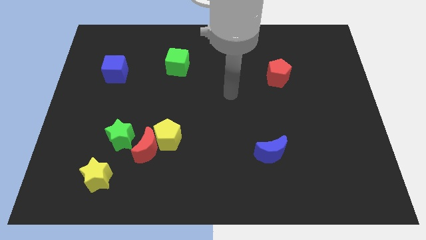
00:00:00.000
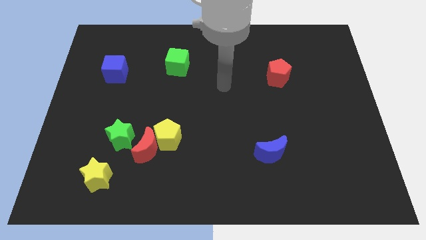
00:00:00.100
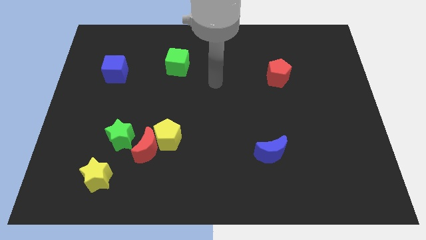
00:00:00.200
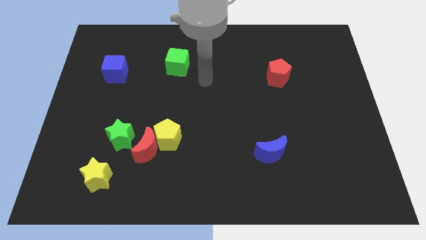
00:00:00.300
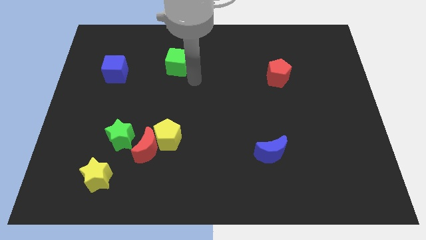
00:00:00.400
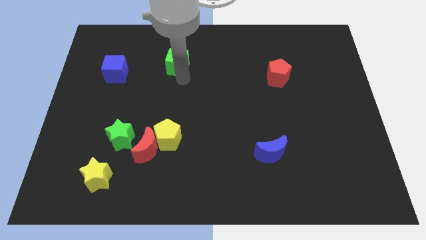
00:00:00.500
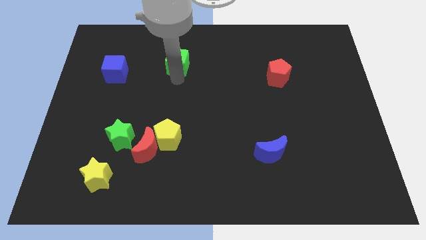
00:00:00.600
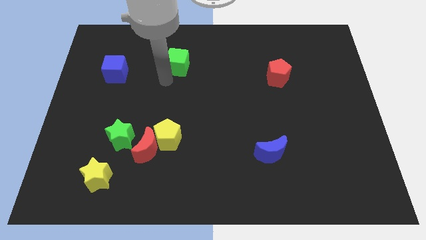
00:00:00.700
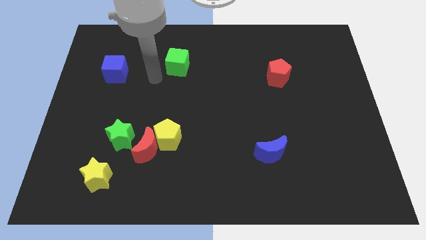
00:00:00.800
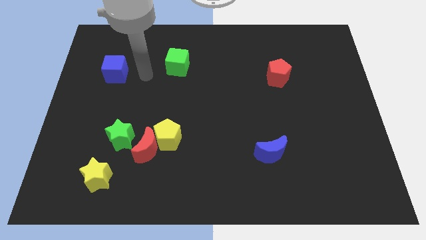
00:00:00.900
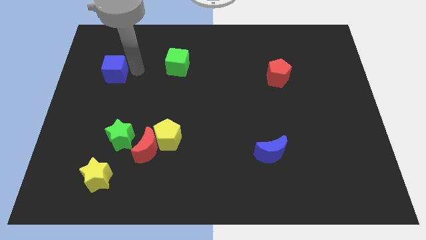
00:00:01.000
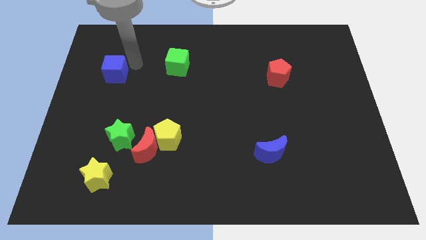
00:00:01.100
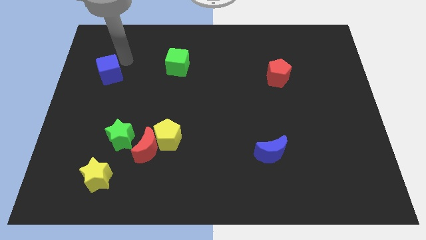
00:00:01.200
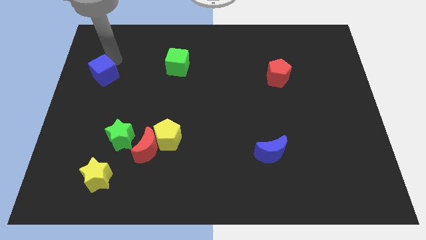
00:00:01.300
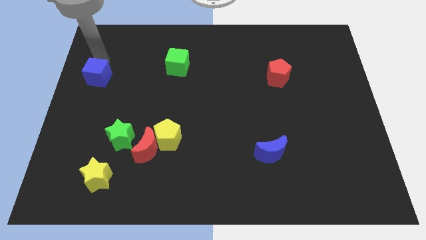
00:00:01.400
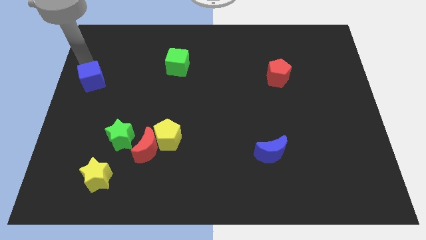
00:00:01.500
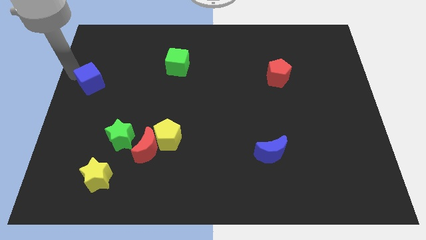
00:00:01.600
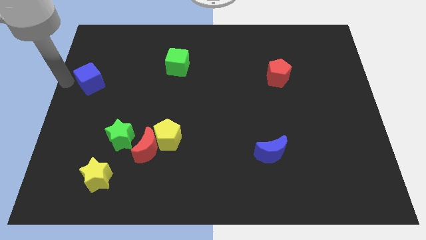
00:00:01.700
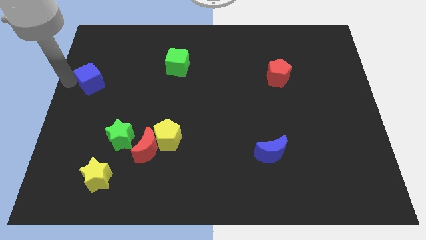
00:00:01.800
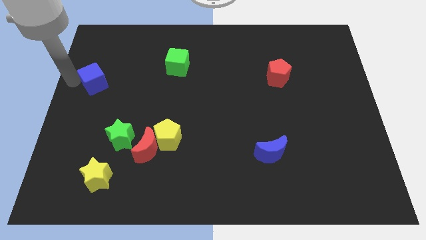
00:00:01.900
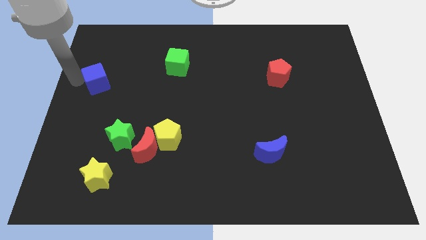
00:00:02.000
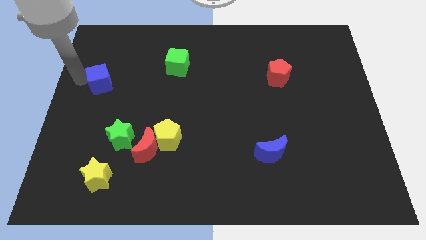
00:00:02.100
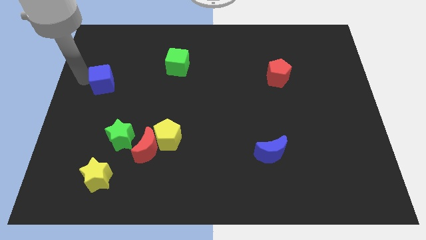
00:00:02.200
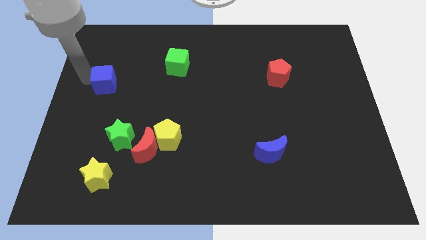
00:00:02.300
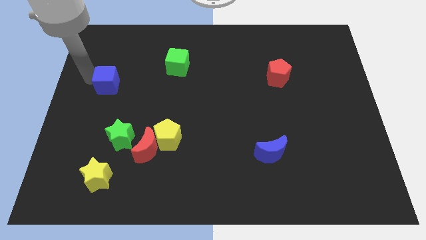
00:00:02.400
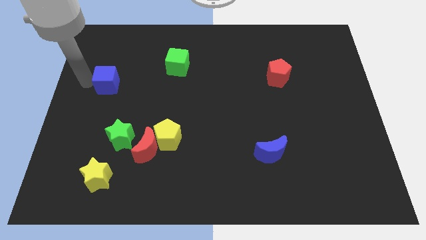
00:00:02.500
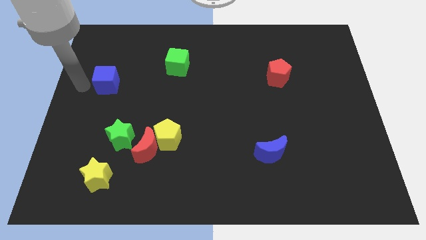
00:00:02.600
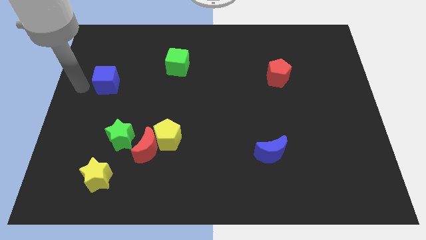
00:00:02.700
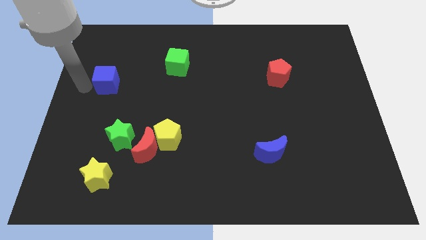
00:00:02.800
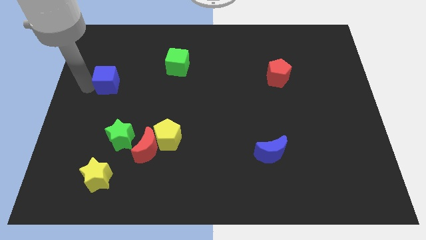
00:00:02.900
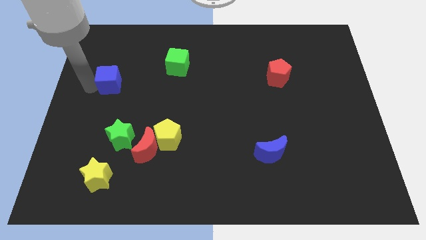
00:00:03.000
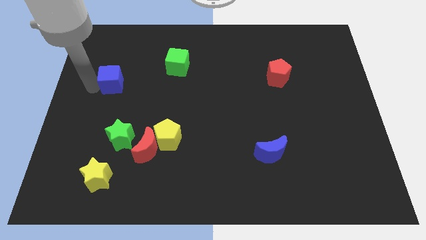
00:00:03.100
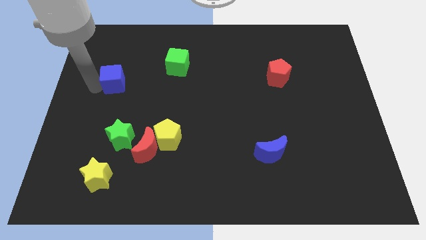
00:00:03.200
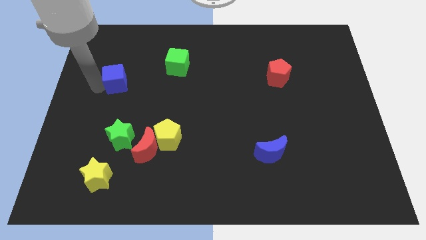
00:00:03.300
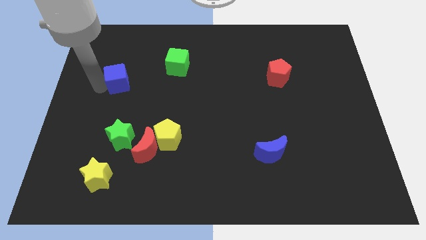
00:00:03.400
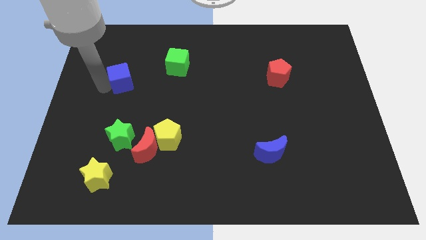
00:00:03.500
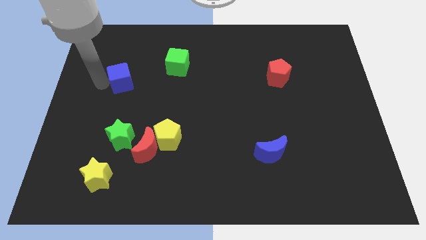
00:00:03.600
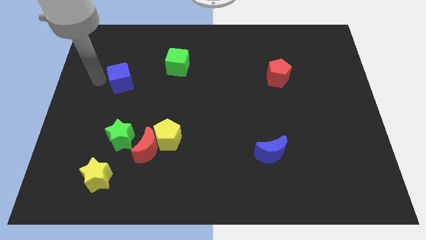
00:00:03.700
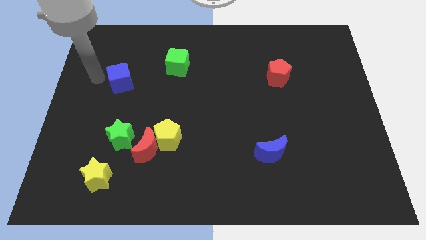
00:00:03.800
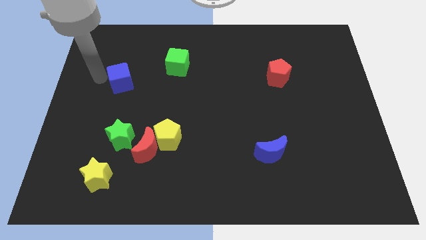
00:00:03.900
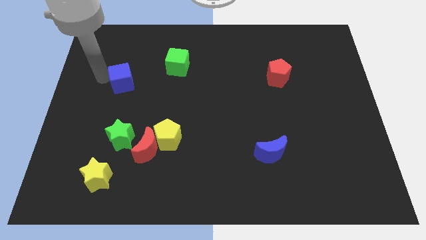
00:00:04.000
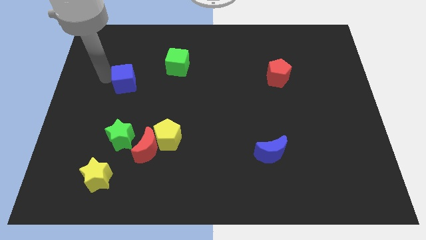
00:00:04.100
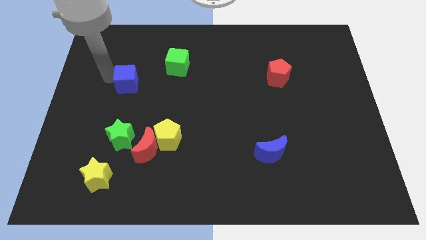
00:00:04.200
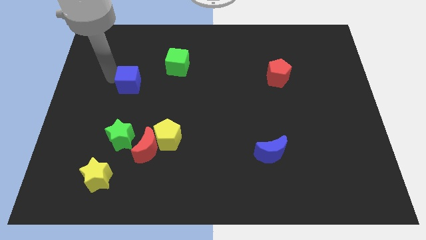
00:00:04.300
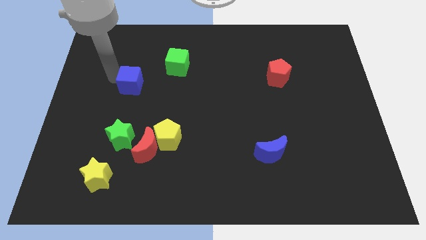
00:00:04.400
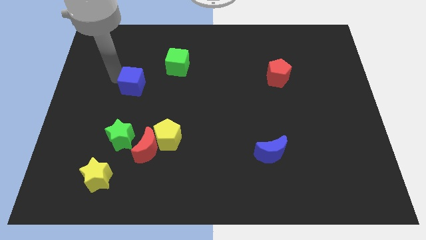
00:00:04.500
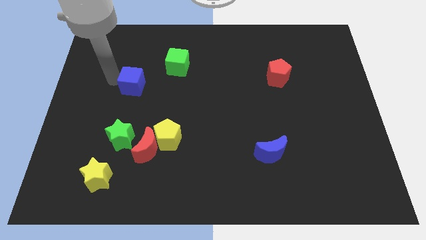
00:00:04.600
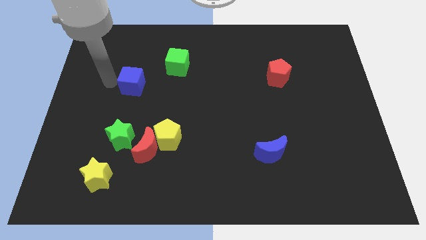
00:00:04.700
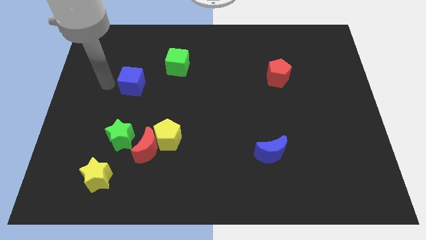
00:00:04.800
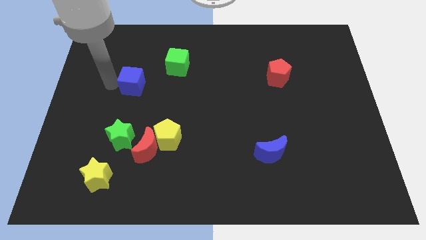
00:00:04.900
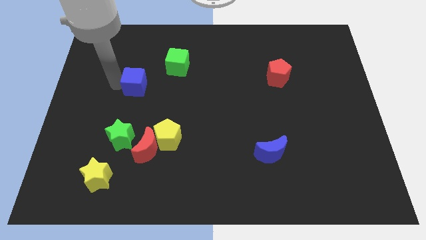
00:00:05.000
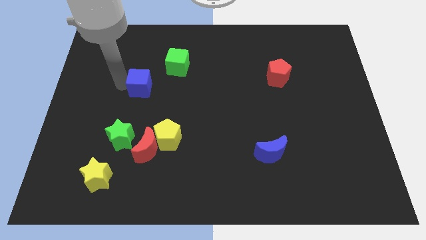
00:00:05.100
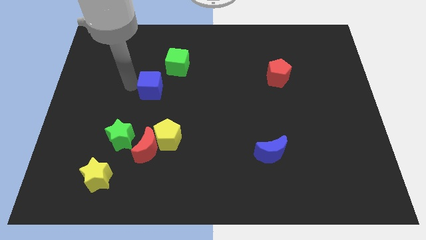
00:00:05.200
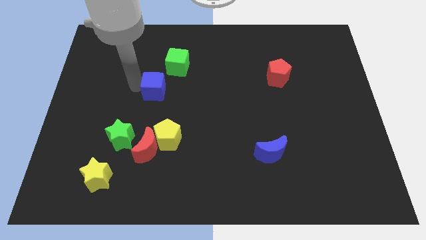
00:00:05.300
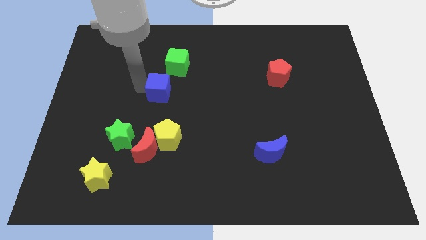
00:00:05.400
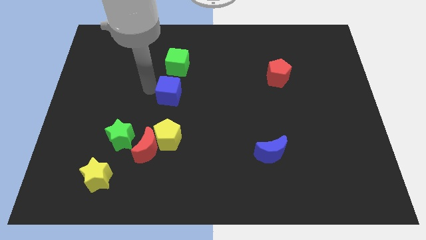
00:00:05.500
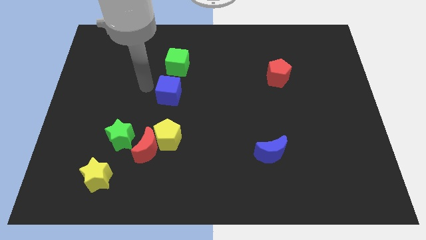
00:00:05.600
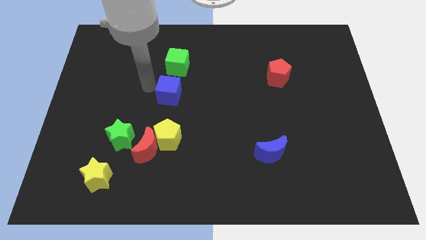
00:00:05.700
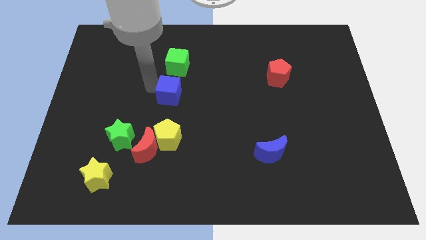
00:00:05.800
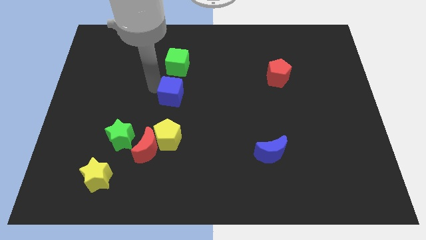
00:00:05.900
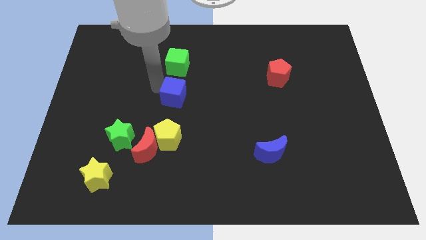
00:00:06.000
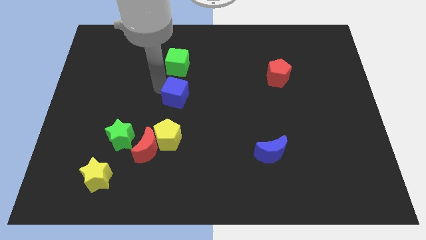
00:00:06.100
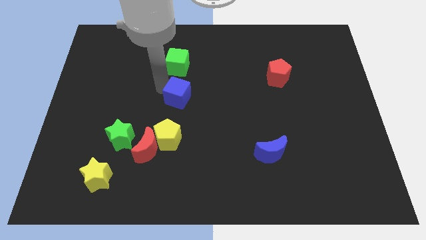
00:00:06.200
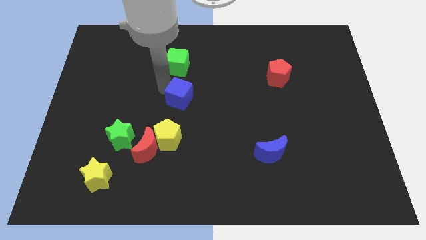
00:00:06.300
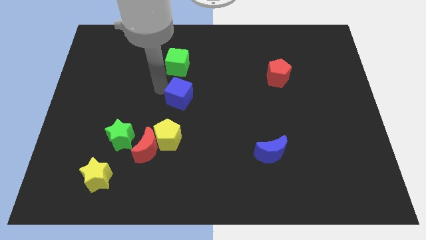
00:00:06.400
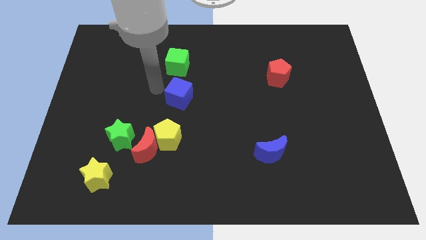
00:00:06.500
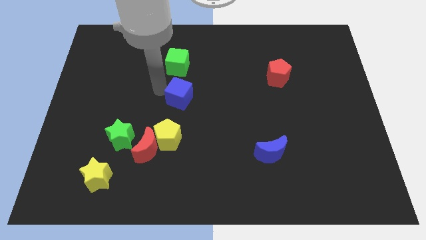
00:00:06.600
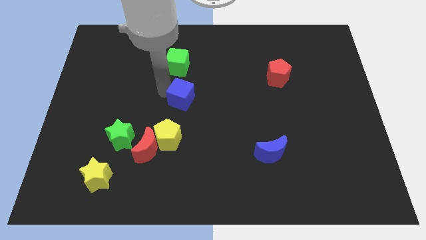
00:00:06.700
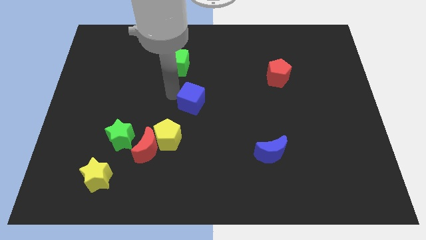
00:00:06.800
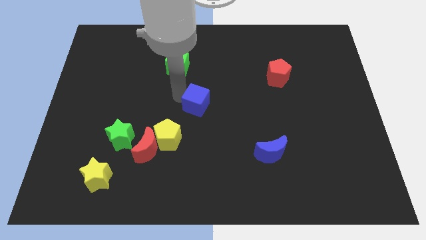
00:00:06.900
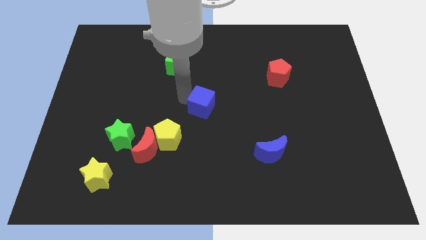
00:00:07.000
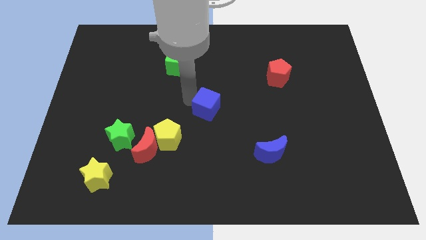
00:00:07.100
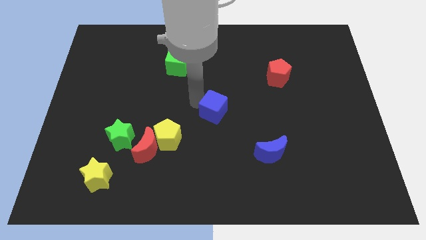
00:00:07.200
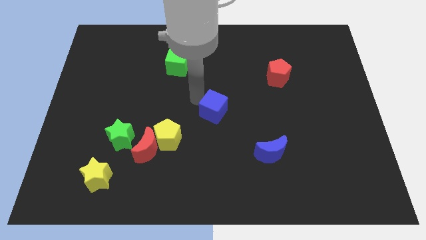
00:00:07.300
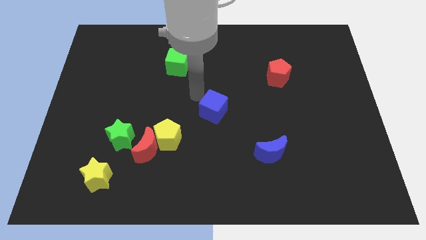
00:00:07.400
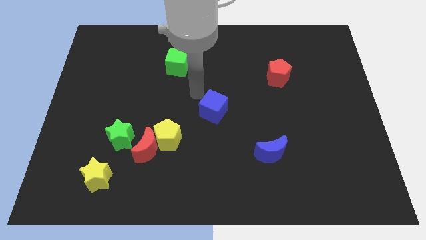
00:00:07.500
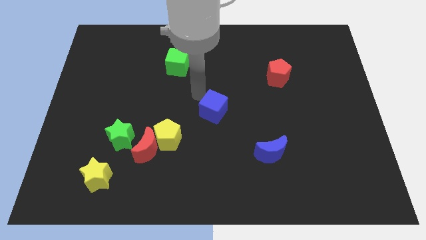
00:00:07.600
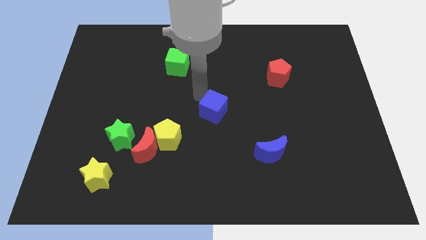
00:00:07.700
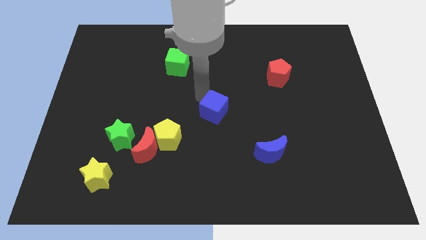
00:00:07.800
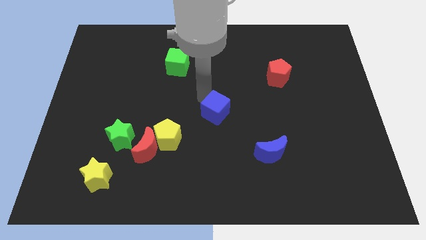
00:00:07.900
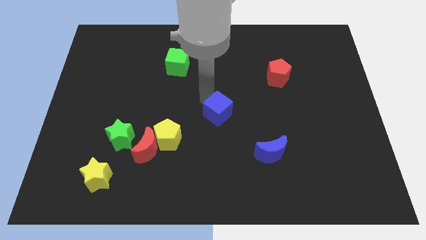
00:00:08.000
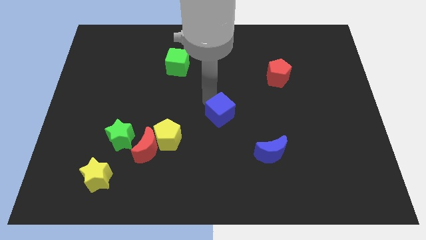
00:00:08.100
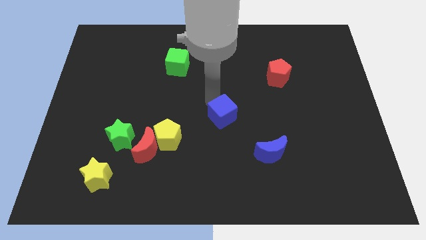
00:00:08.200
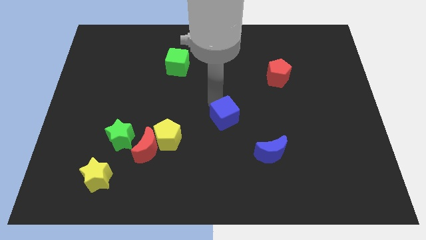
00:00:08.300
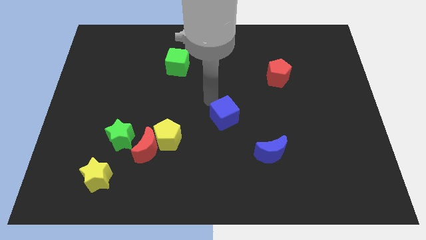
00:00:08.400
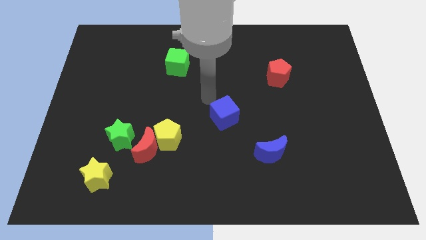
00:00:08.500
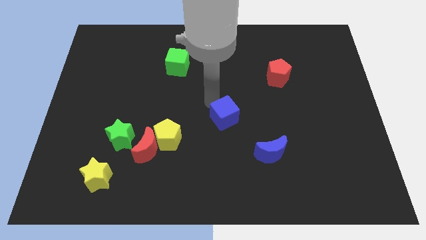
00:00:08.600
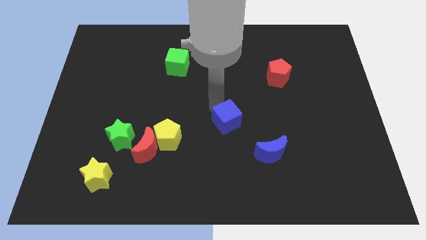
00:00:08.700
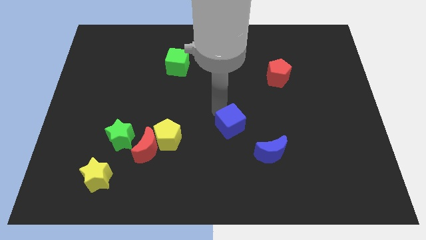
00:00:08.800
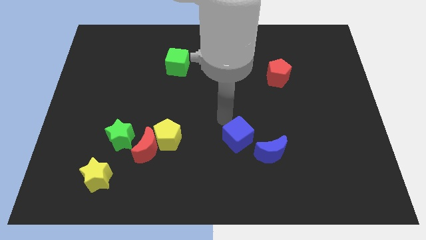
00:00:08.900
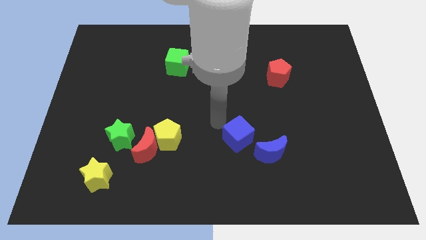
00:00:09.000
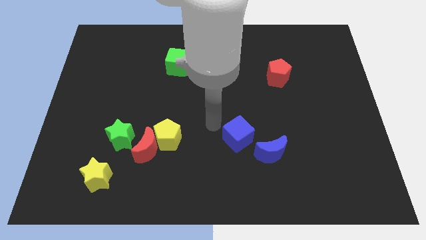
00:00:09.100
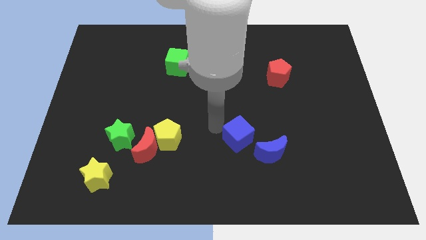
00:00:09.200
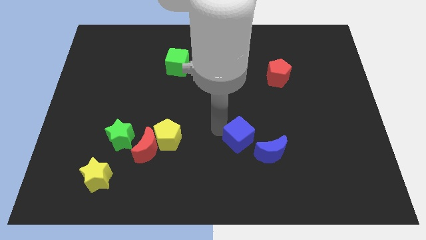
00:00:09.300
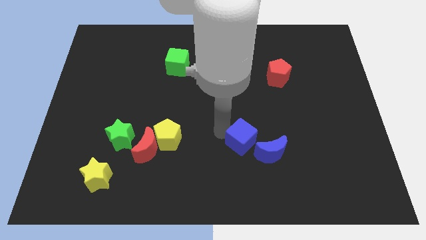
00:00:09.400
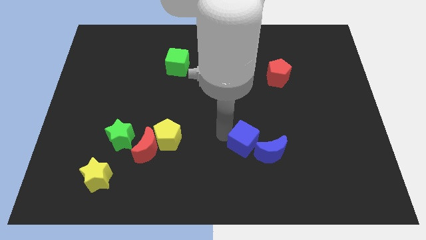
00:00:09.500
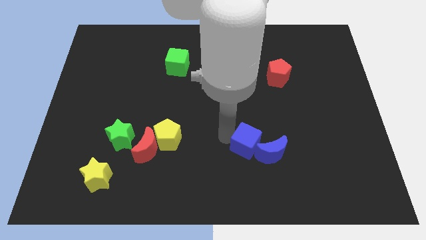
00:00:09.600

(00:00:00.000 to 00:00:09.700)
put the blue cube towards the blue moon
